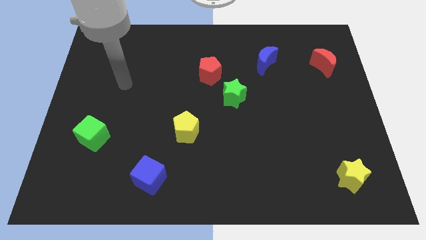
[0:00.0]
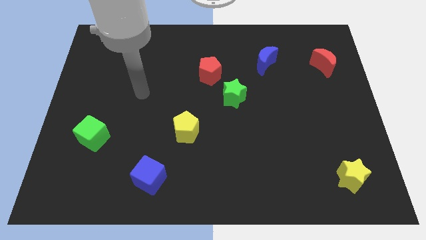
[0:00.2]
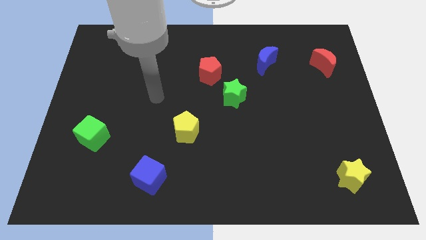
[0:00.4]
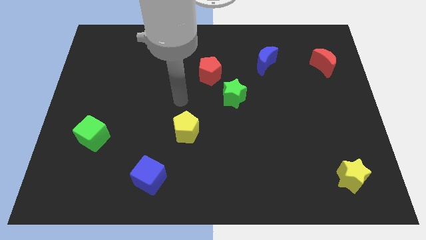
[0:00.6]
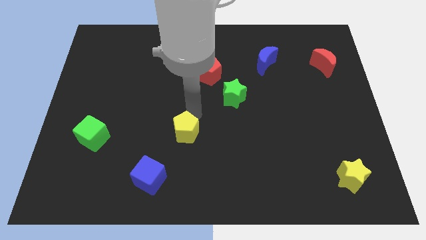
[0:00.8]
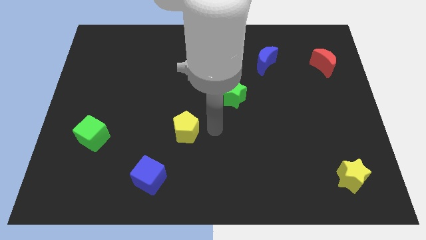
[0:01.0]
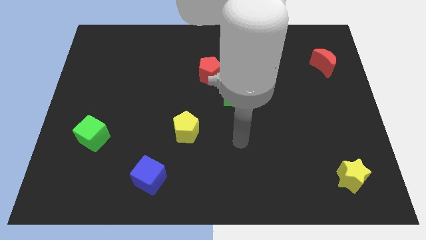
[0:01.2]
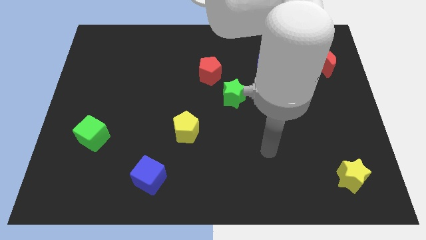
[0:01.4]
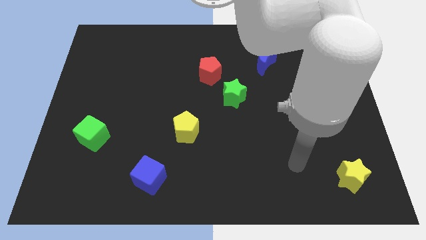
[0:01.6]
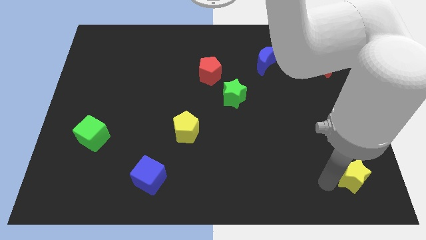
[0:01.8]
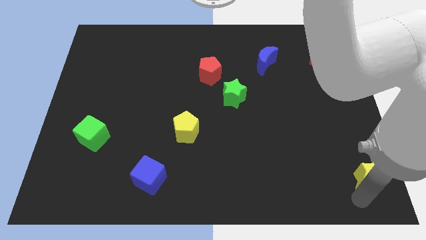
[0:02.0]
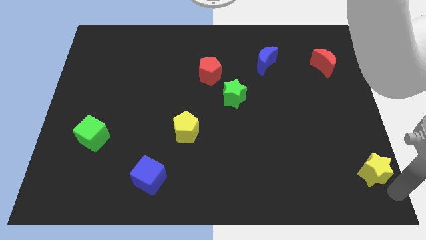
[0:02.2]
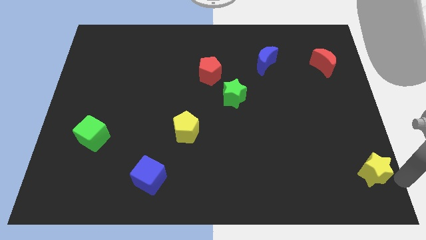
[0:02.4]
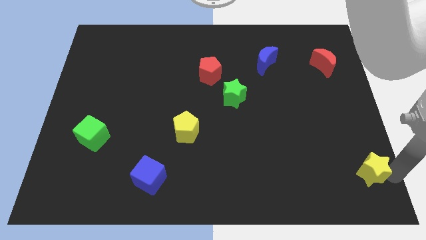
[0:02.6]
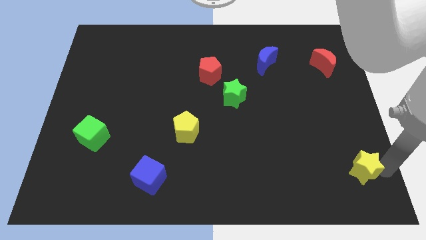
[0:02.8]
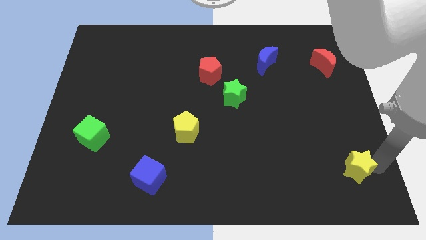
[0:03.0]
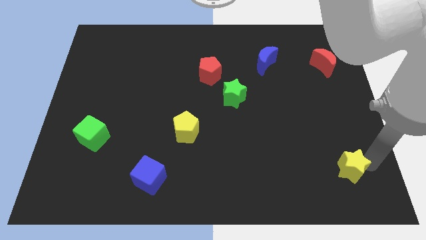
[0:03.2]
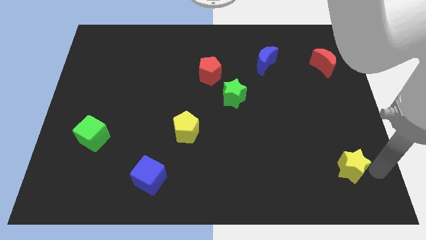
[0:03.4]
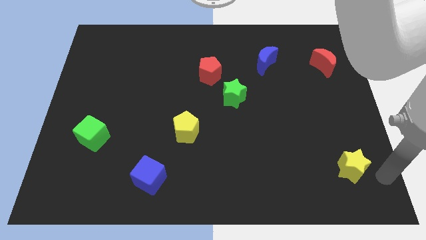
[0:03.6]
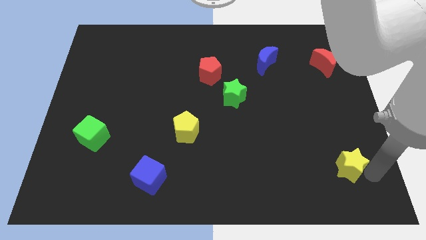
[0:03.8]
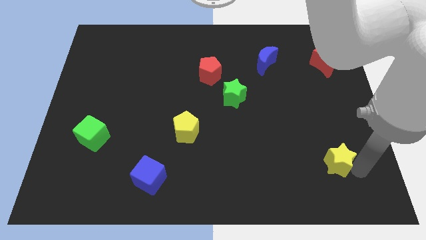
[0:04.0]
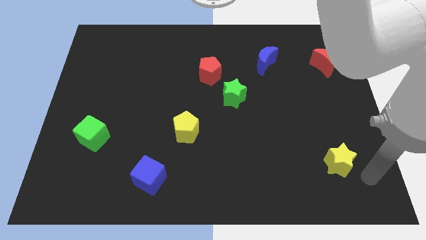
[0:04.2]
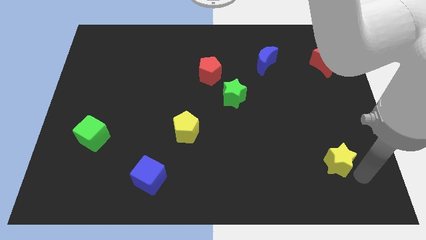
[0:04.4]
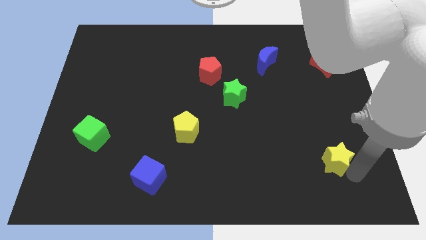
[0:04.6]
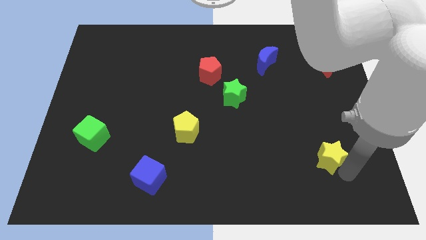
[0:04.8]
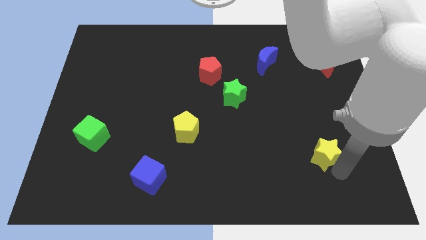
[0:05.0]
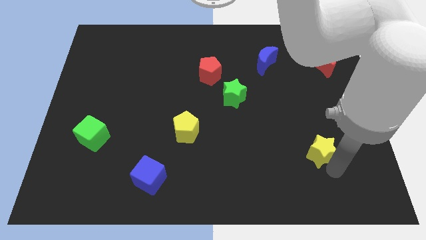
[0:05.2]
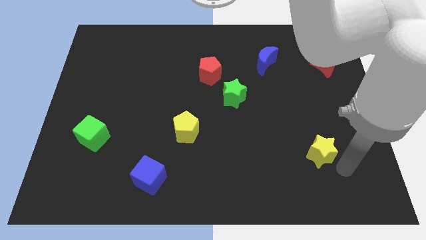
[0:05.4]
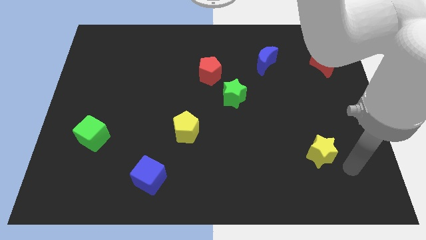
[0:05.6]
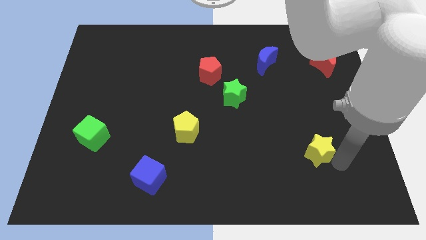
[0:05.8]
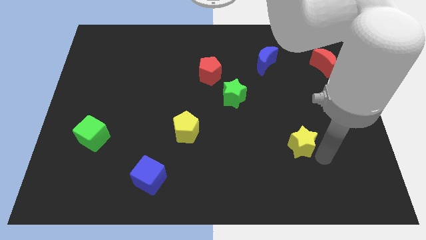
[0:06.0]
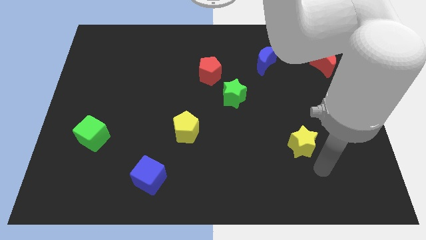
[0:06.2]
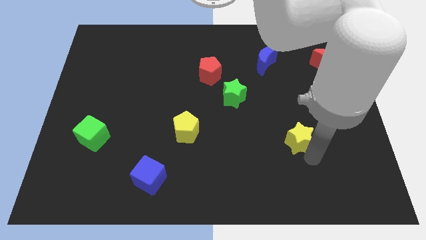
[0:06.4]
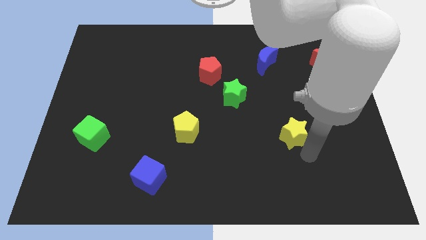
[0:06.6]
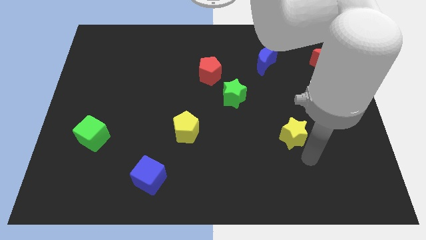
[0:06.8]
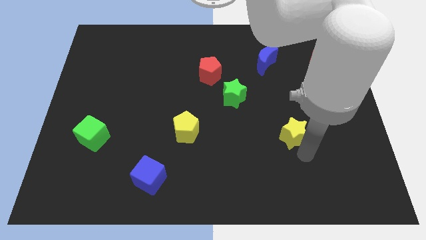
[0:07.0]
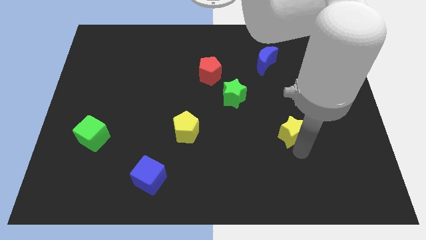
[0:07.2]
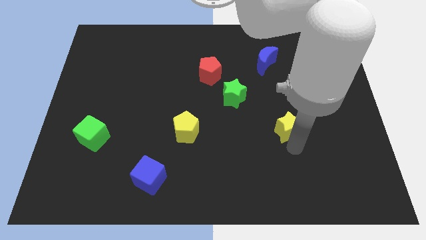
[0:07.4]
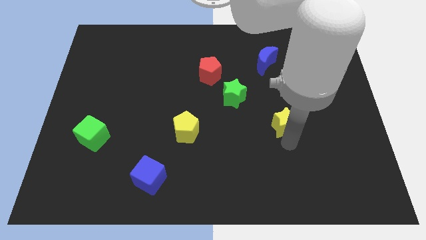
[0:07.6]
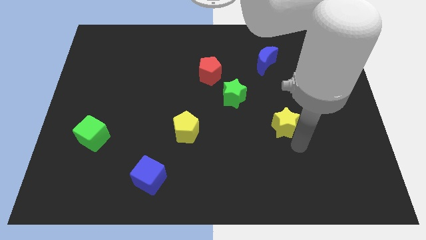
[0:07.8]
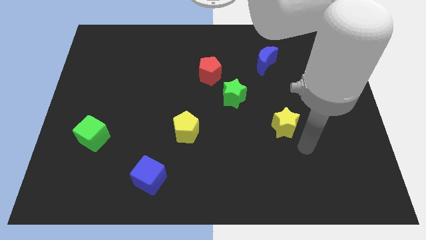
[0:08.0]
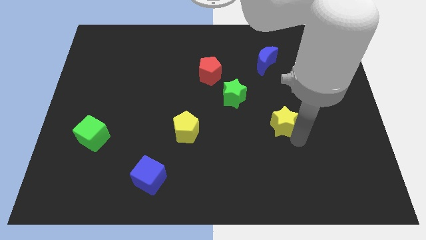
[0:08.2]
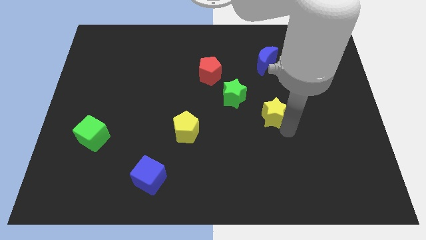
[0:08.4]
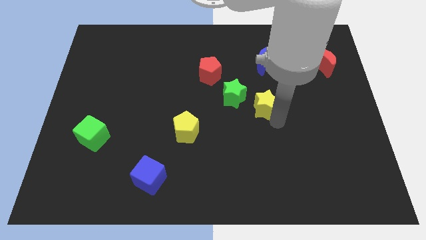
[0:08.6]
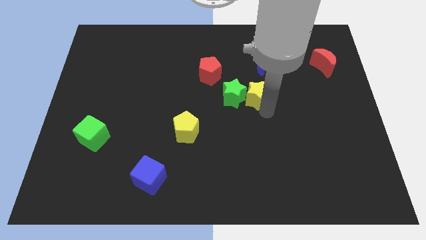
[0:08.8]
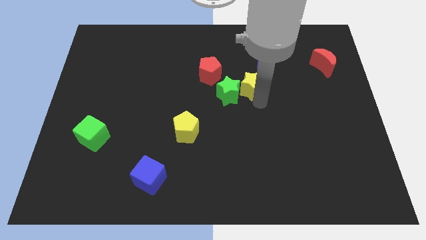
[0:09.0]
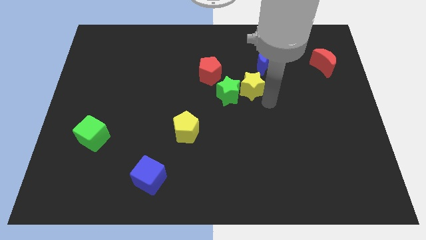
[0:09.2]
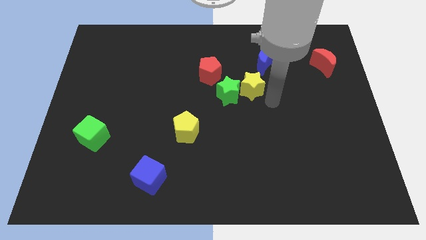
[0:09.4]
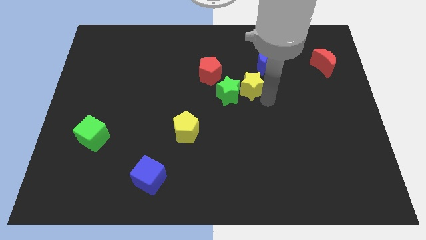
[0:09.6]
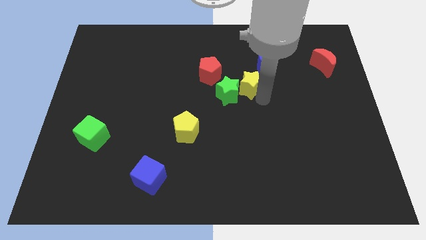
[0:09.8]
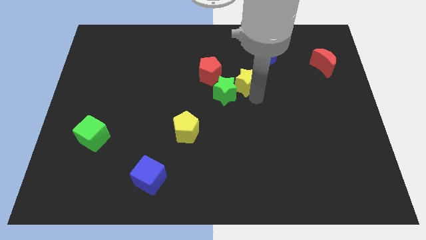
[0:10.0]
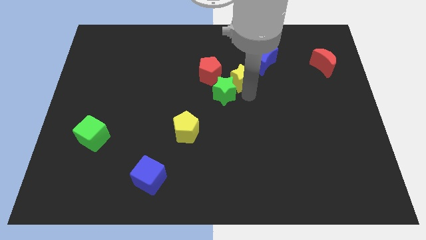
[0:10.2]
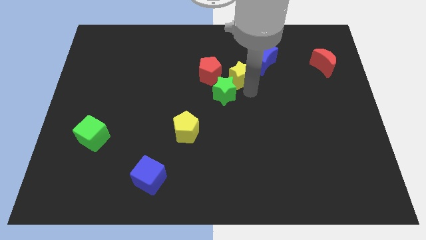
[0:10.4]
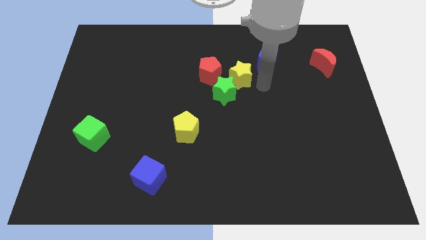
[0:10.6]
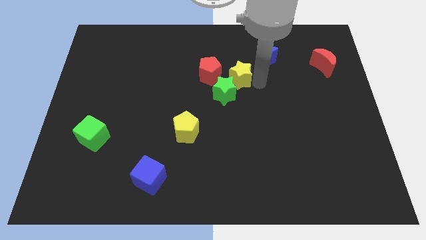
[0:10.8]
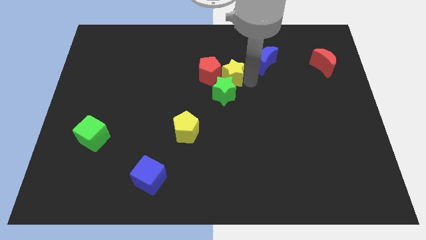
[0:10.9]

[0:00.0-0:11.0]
move the yellow star close to the red pentagon

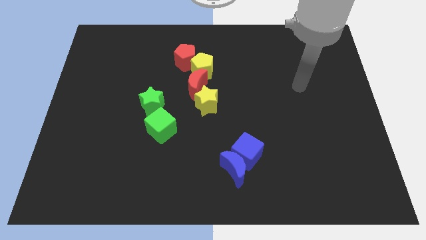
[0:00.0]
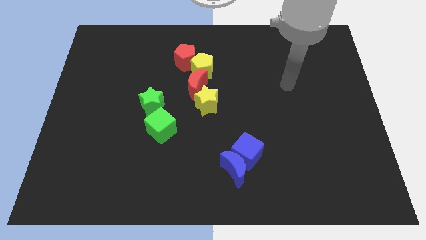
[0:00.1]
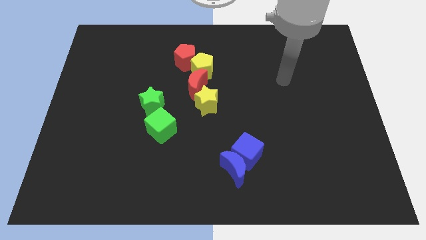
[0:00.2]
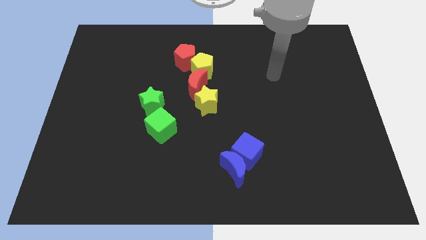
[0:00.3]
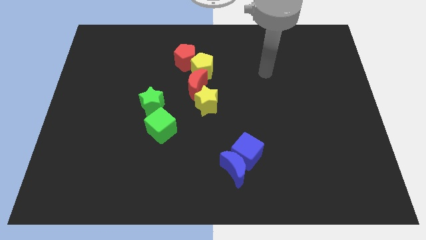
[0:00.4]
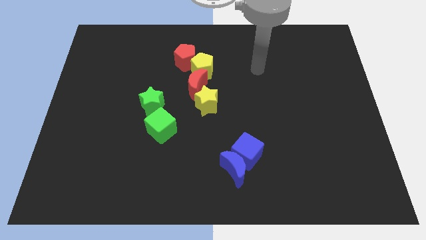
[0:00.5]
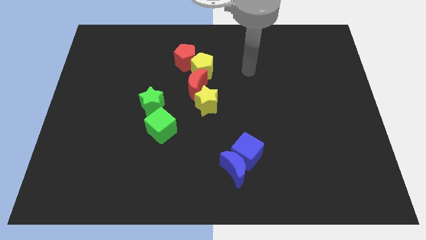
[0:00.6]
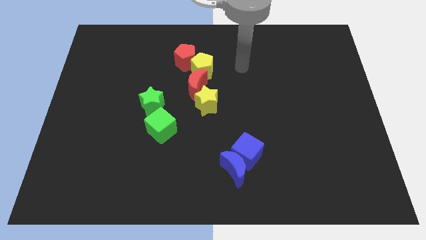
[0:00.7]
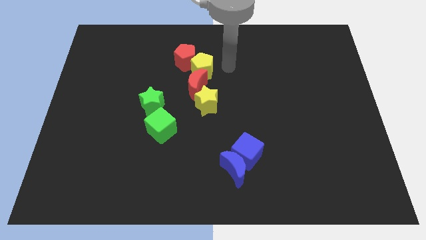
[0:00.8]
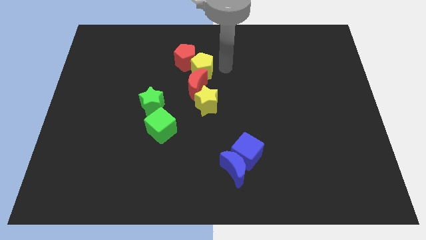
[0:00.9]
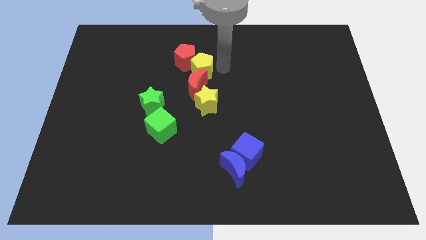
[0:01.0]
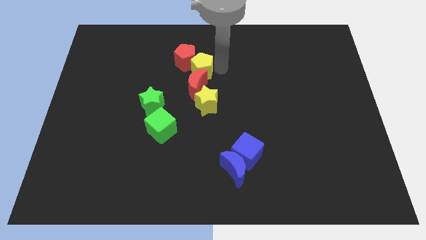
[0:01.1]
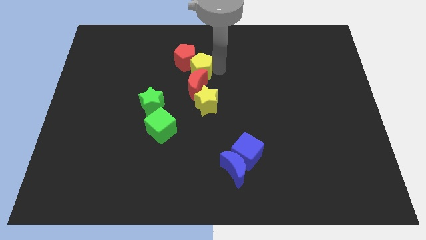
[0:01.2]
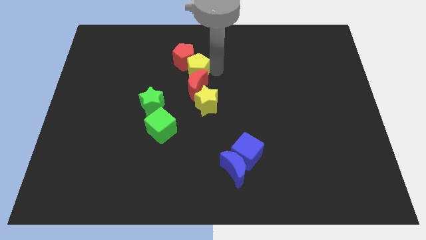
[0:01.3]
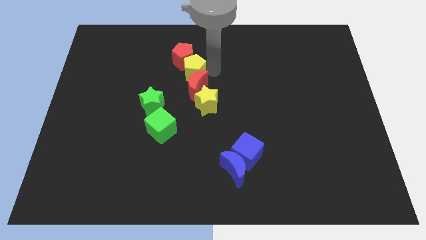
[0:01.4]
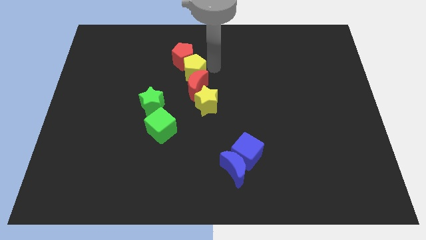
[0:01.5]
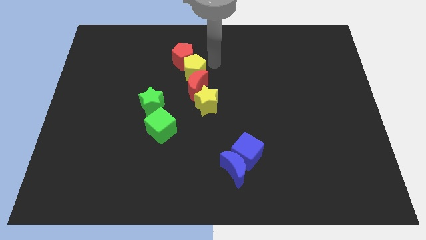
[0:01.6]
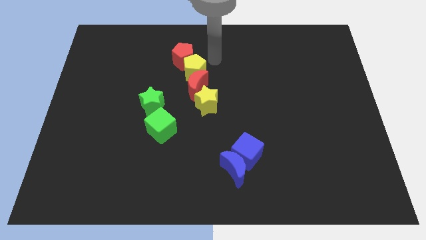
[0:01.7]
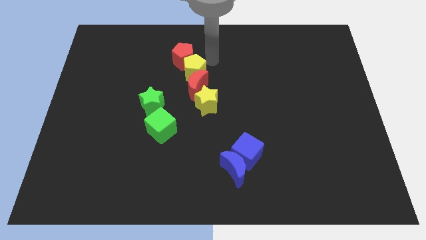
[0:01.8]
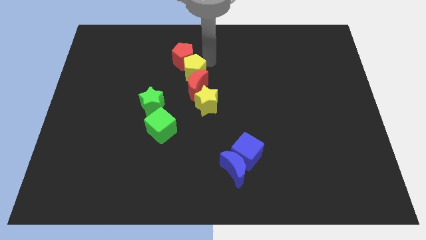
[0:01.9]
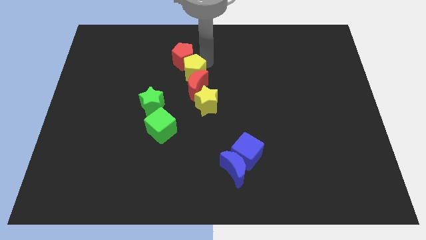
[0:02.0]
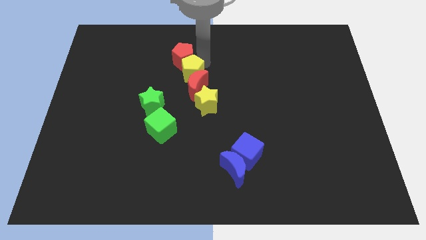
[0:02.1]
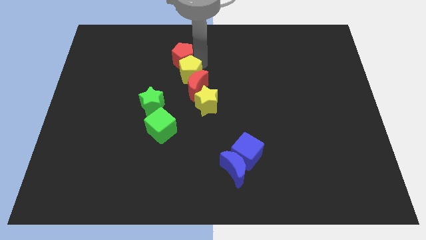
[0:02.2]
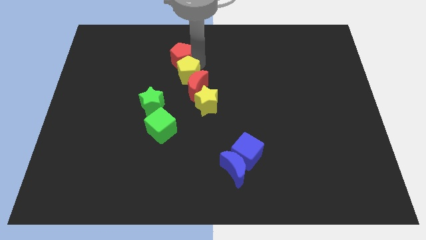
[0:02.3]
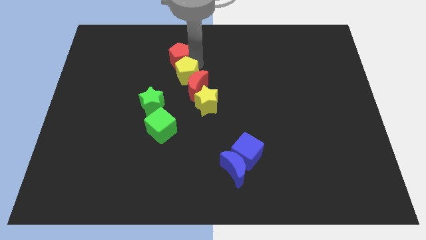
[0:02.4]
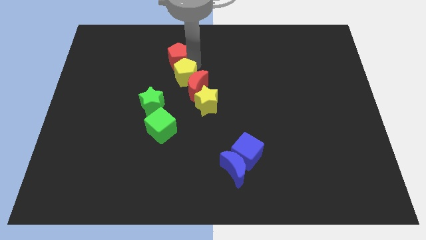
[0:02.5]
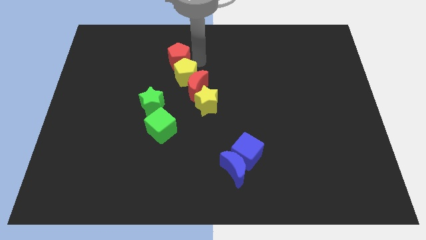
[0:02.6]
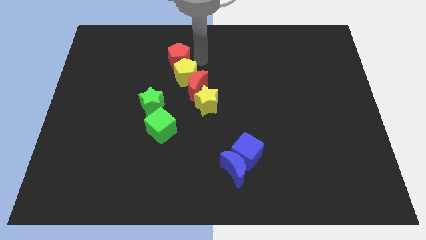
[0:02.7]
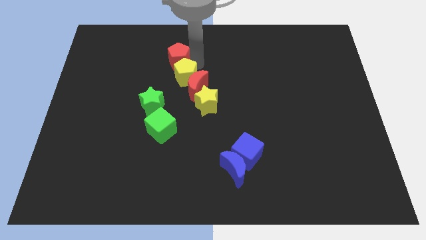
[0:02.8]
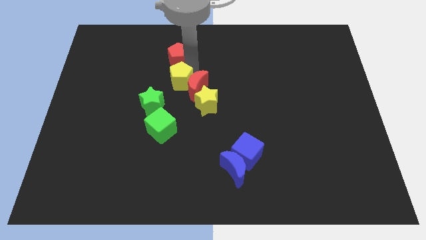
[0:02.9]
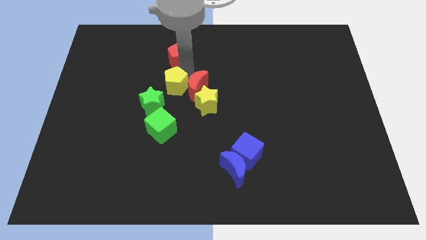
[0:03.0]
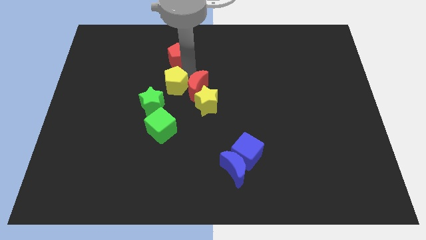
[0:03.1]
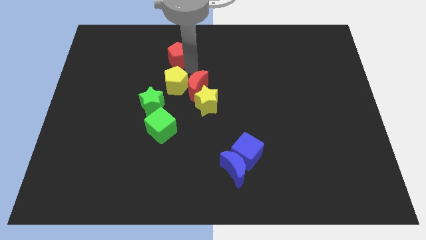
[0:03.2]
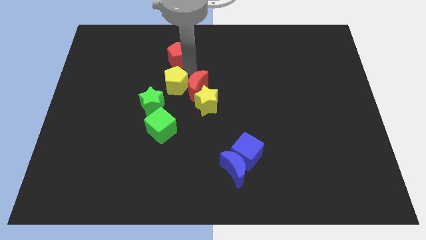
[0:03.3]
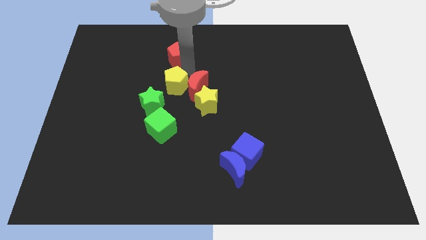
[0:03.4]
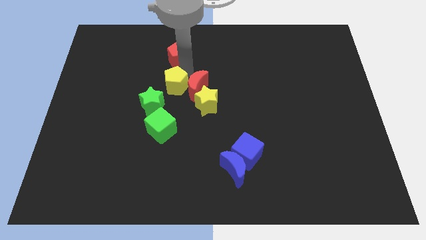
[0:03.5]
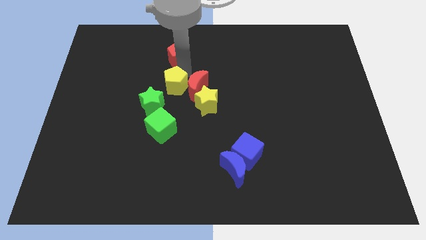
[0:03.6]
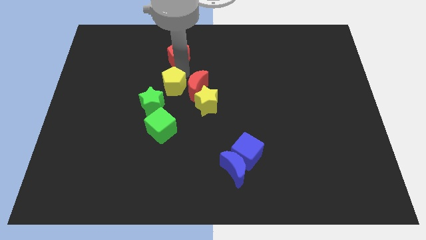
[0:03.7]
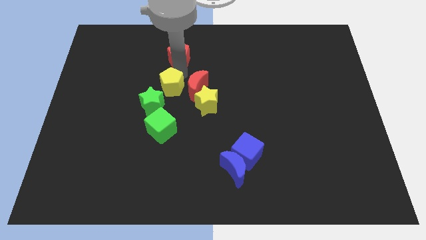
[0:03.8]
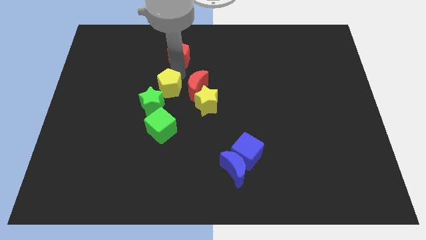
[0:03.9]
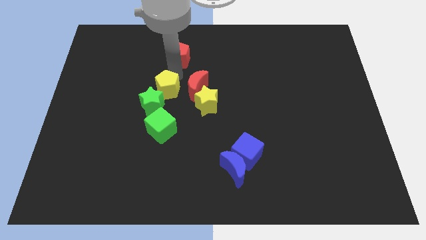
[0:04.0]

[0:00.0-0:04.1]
move the yellow pentagon to the green star
